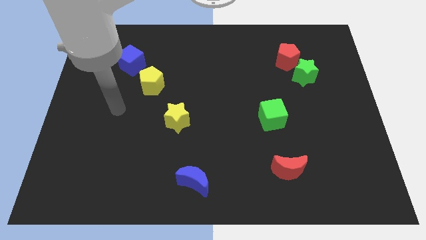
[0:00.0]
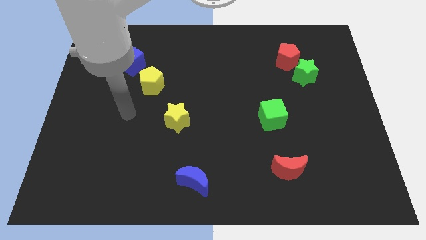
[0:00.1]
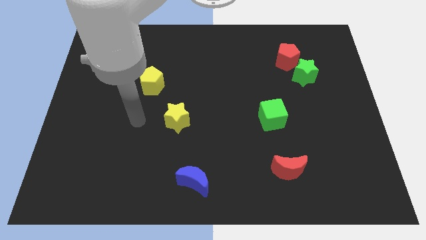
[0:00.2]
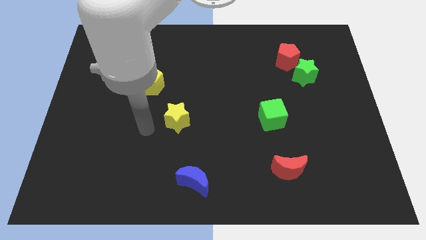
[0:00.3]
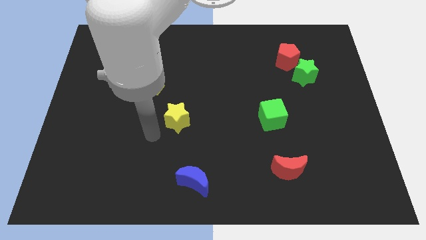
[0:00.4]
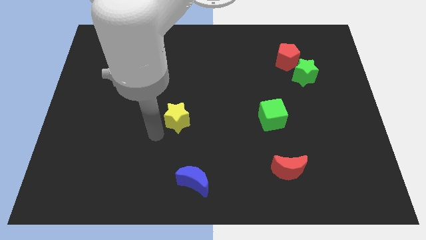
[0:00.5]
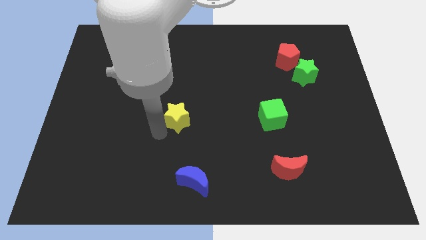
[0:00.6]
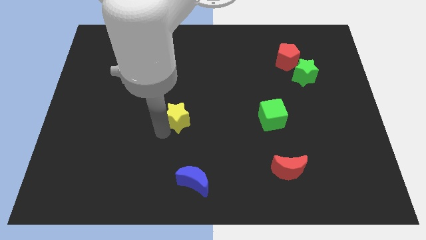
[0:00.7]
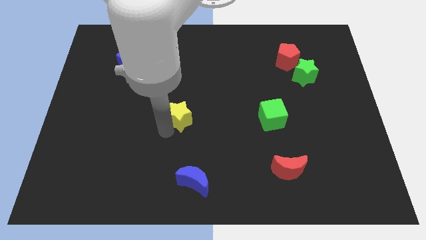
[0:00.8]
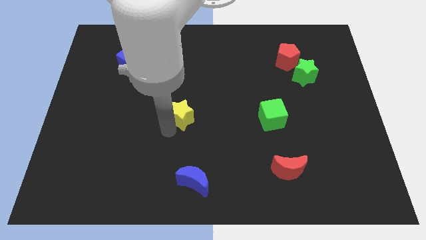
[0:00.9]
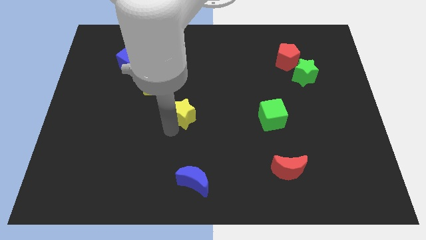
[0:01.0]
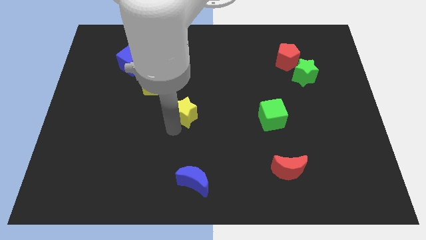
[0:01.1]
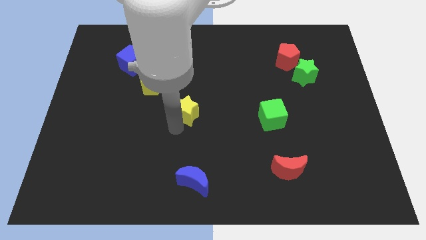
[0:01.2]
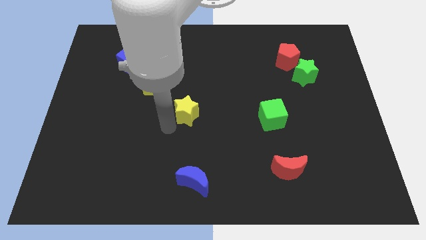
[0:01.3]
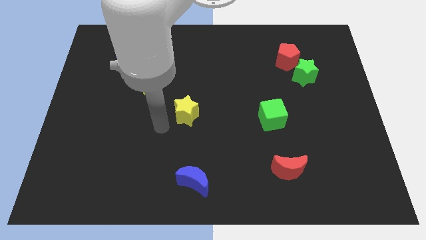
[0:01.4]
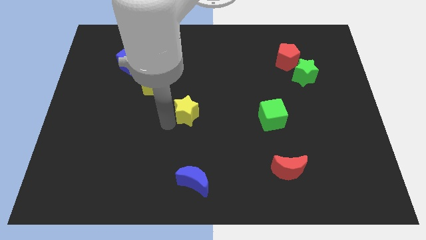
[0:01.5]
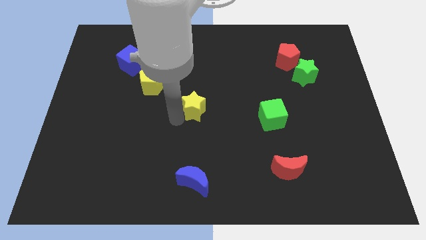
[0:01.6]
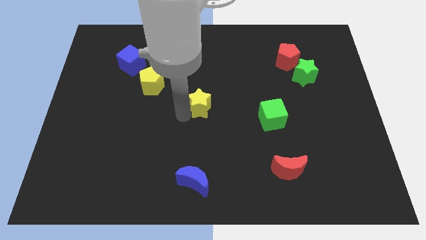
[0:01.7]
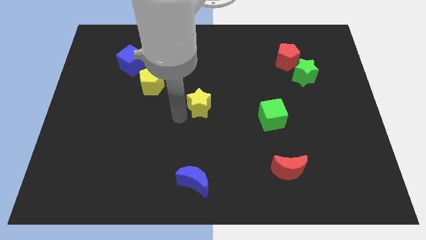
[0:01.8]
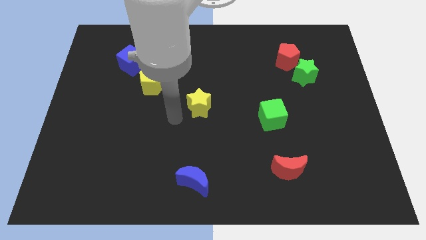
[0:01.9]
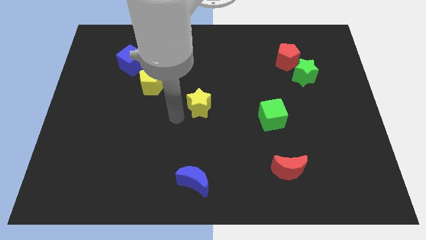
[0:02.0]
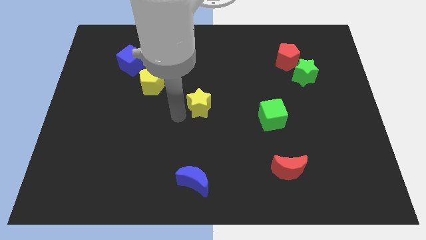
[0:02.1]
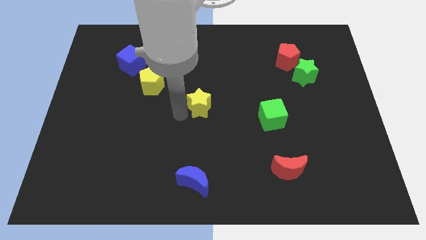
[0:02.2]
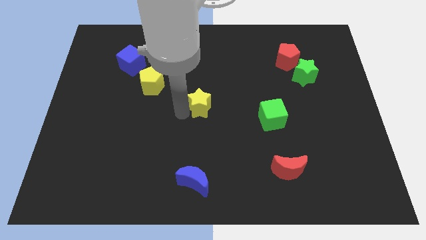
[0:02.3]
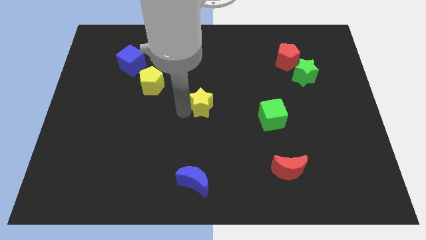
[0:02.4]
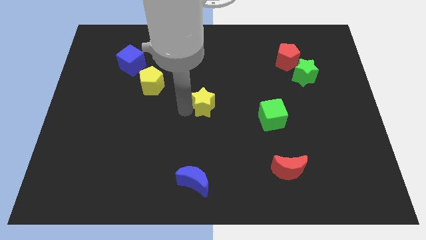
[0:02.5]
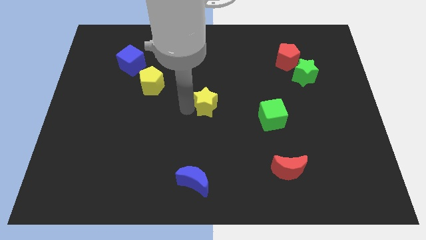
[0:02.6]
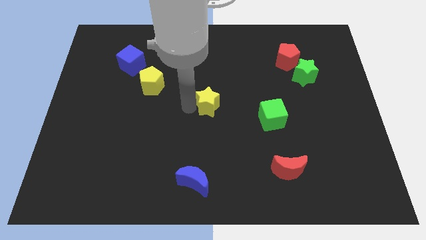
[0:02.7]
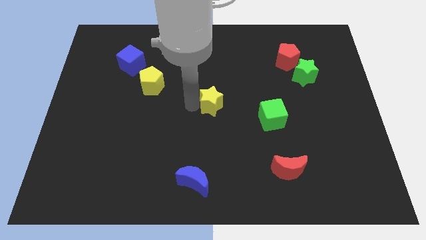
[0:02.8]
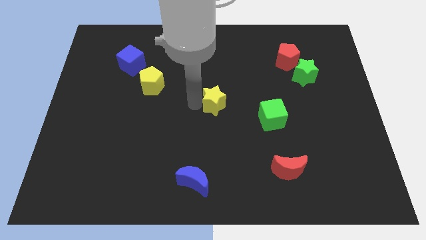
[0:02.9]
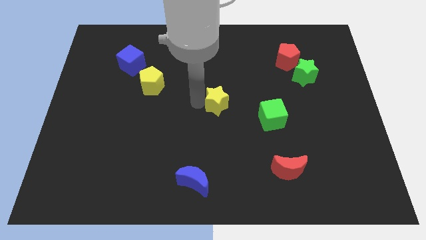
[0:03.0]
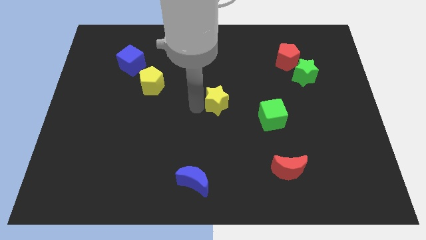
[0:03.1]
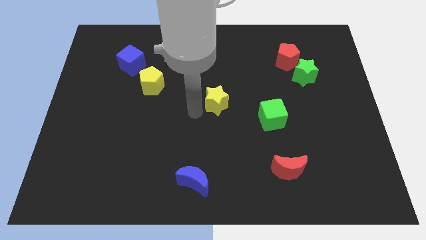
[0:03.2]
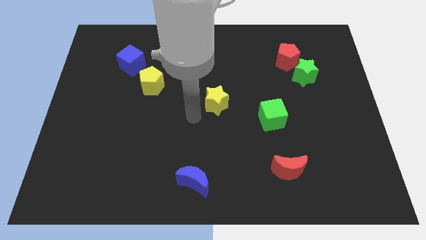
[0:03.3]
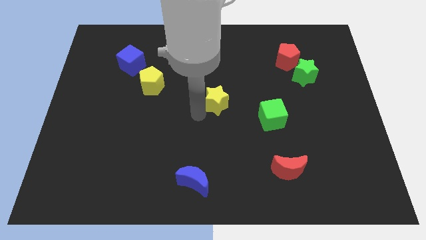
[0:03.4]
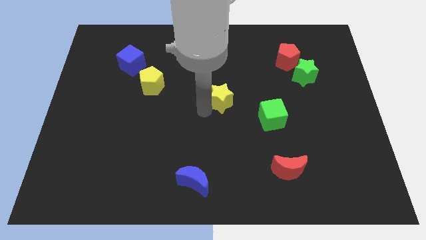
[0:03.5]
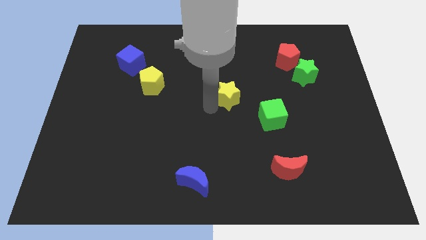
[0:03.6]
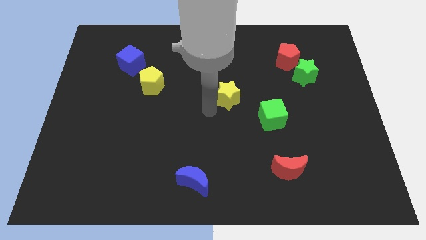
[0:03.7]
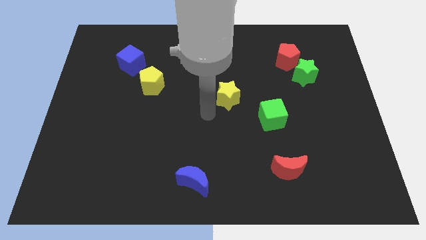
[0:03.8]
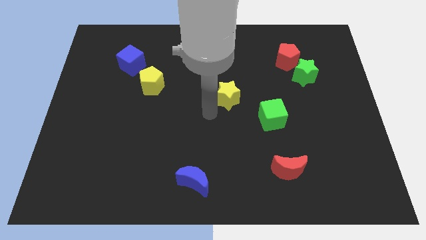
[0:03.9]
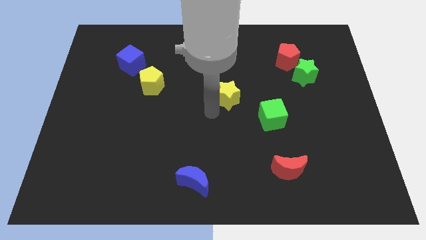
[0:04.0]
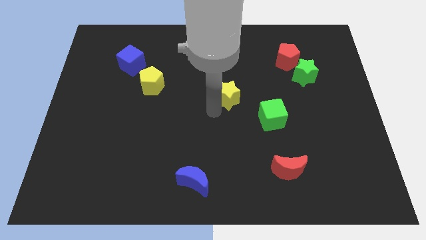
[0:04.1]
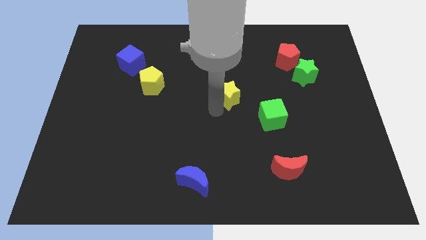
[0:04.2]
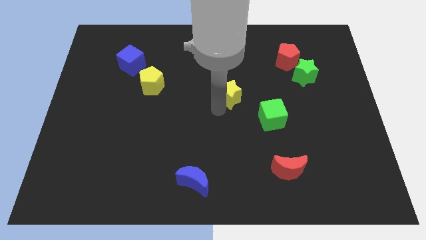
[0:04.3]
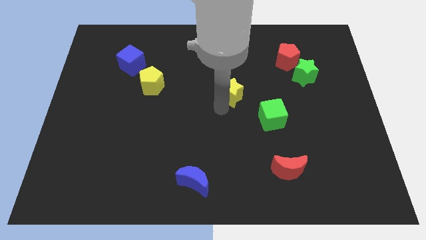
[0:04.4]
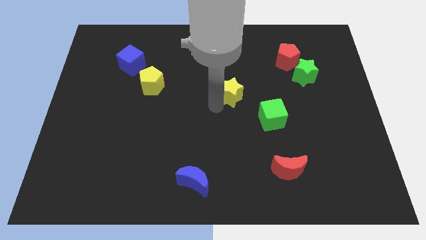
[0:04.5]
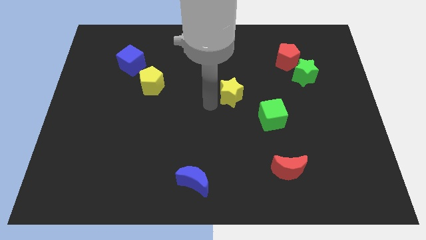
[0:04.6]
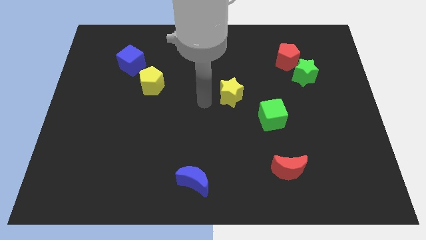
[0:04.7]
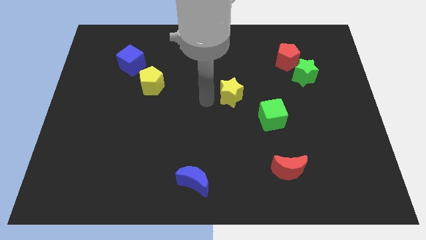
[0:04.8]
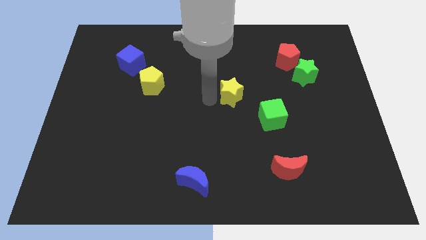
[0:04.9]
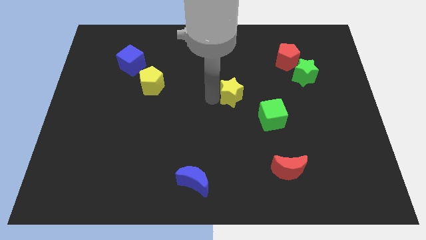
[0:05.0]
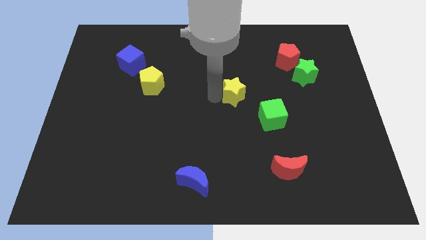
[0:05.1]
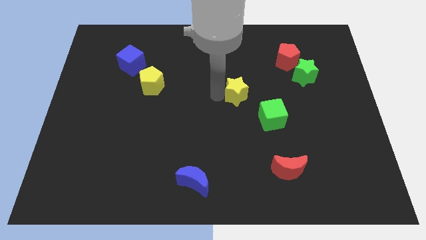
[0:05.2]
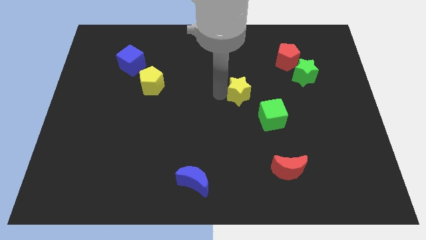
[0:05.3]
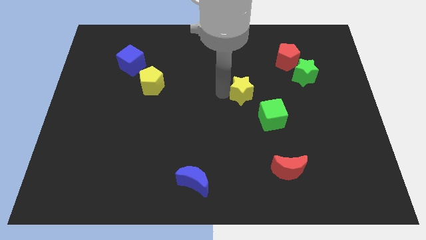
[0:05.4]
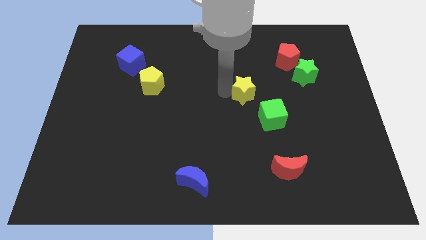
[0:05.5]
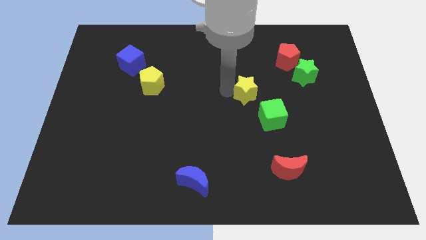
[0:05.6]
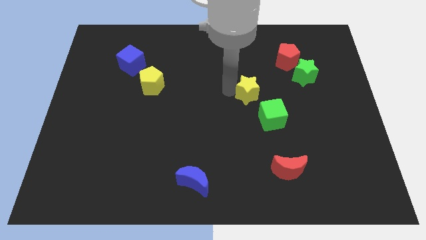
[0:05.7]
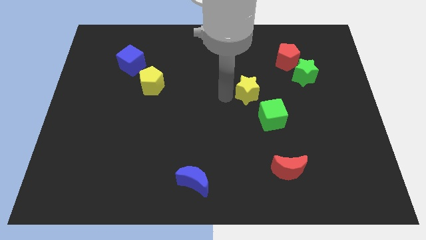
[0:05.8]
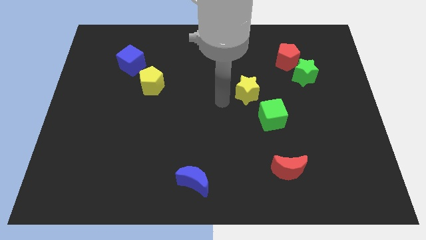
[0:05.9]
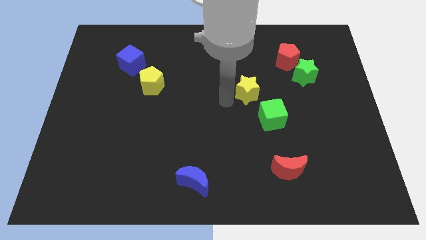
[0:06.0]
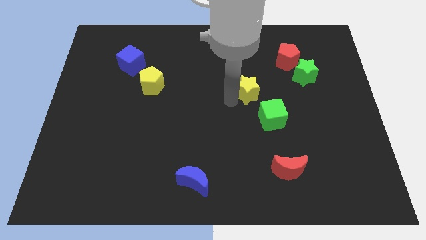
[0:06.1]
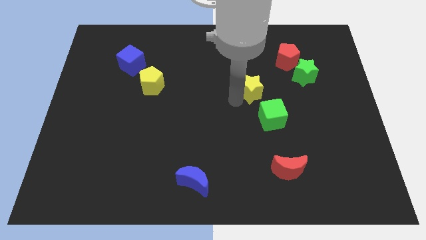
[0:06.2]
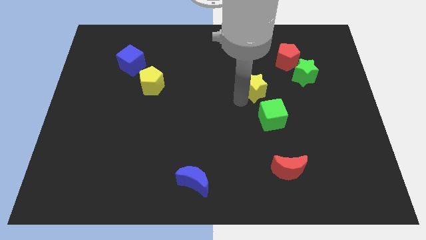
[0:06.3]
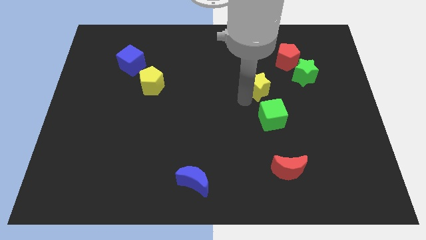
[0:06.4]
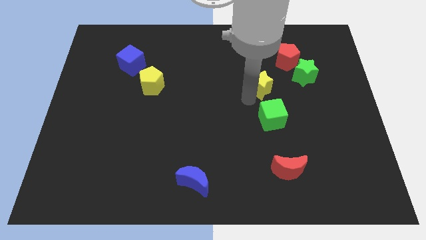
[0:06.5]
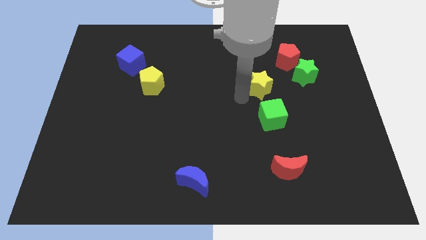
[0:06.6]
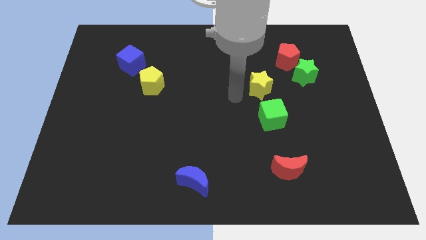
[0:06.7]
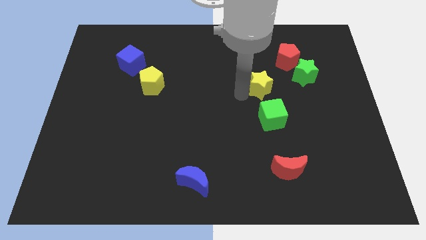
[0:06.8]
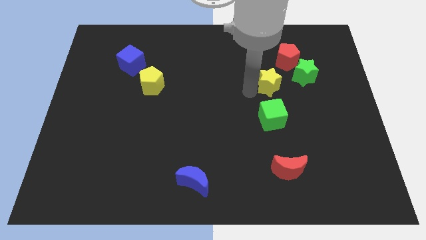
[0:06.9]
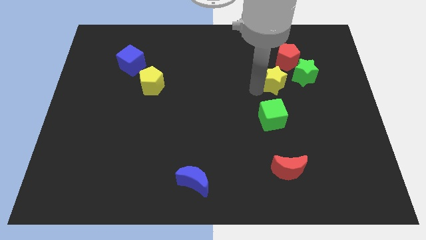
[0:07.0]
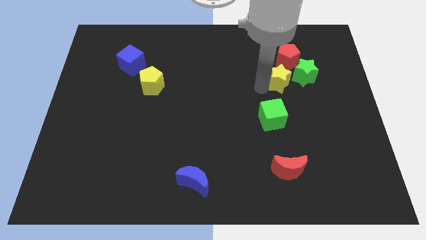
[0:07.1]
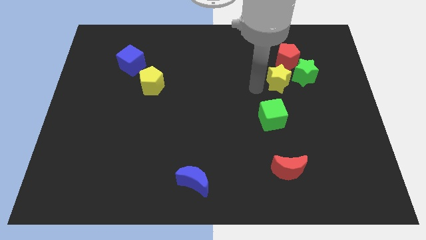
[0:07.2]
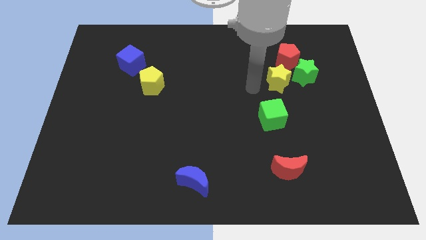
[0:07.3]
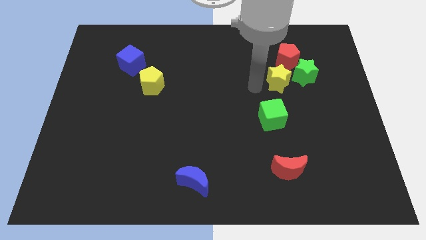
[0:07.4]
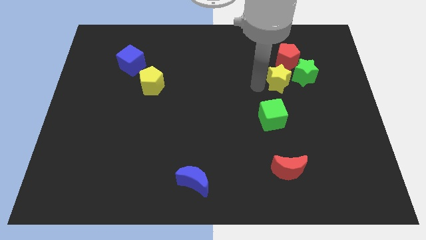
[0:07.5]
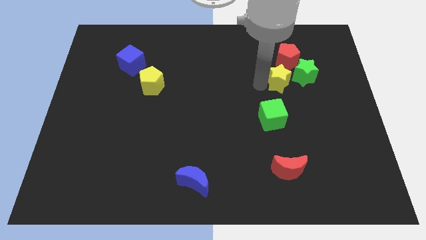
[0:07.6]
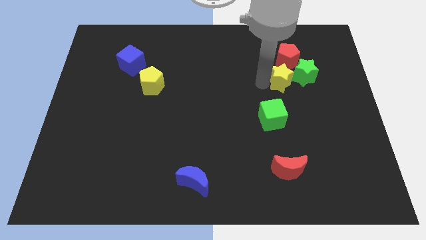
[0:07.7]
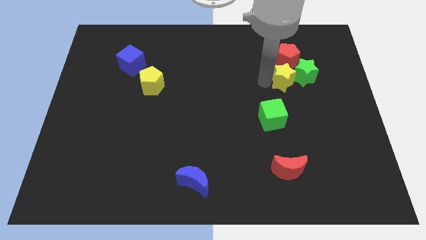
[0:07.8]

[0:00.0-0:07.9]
put the yellow star close to the green star
